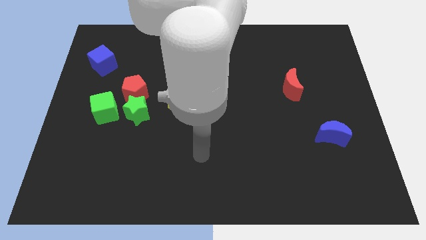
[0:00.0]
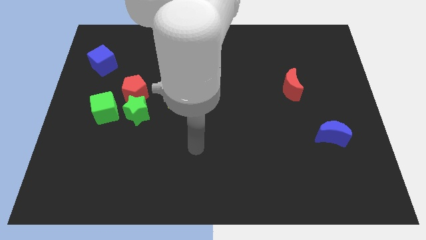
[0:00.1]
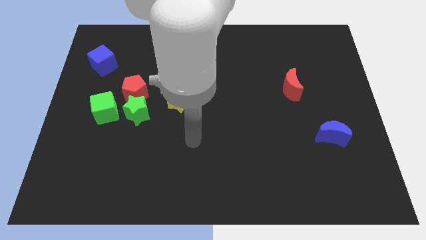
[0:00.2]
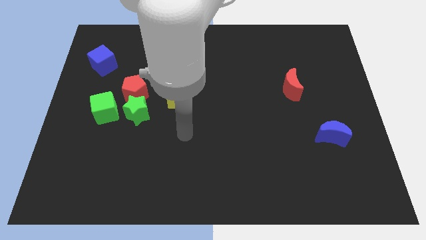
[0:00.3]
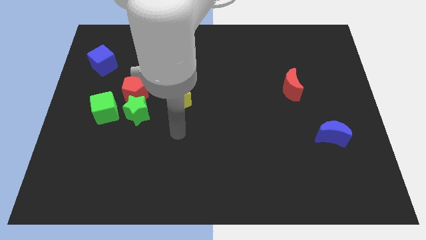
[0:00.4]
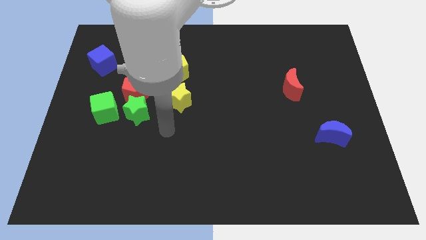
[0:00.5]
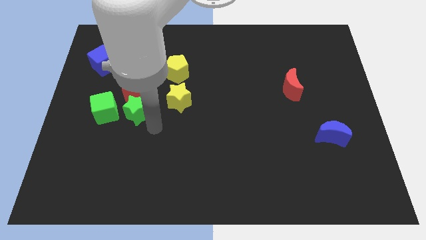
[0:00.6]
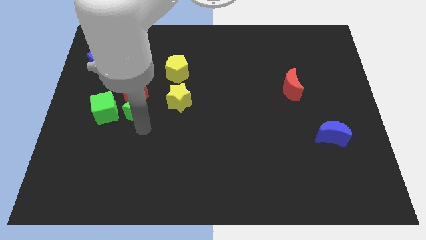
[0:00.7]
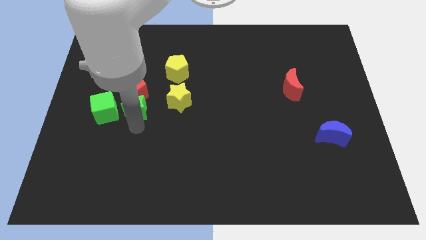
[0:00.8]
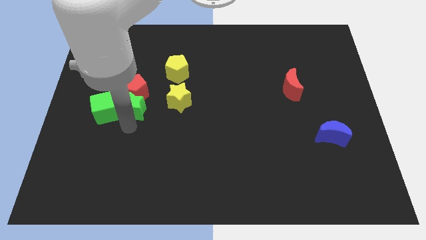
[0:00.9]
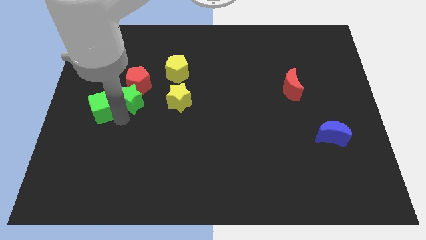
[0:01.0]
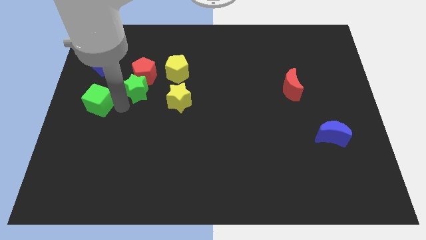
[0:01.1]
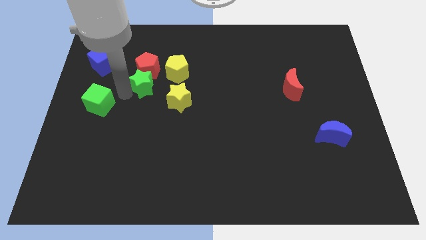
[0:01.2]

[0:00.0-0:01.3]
pull the red pentagon apart from the green star and green cube

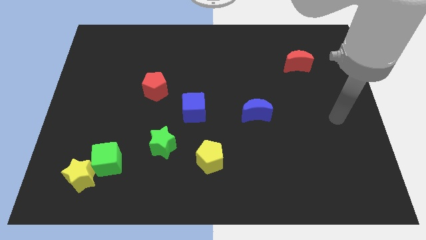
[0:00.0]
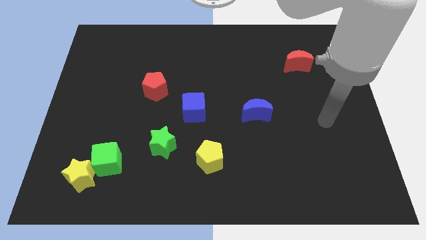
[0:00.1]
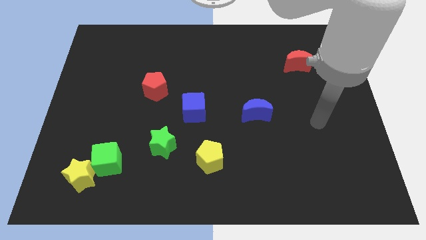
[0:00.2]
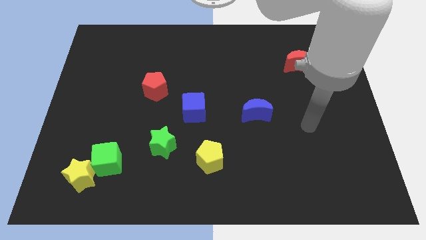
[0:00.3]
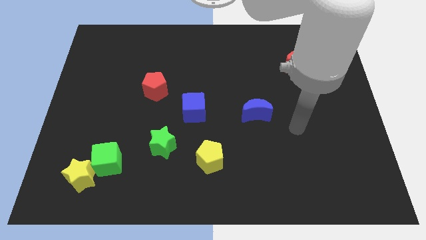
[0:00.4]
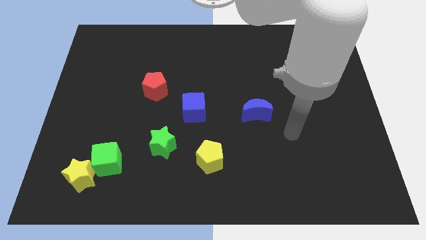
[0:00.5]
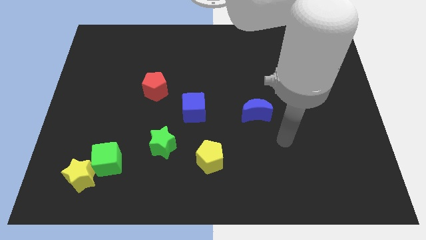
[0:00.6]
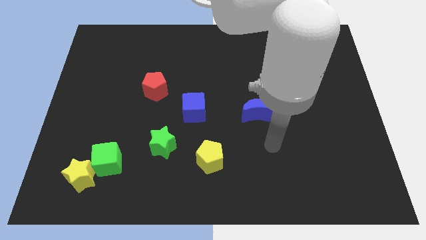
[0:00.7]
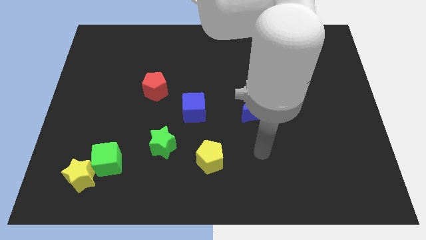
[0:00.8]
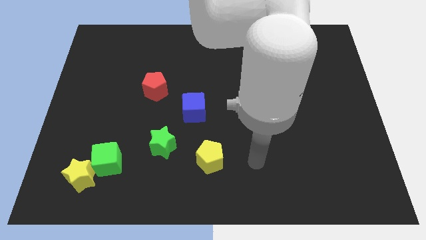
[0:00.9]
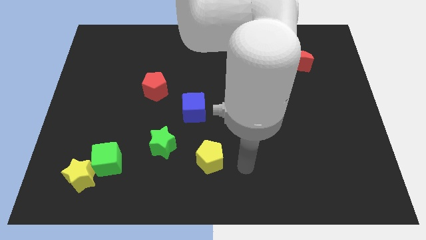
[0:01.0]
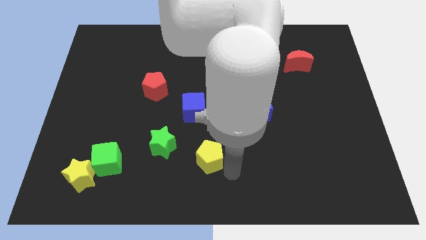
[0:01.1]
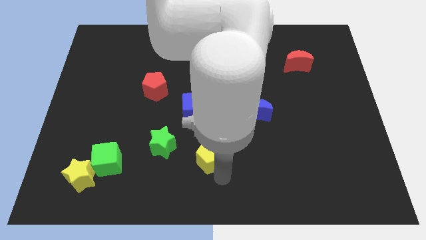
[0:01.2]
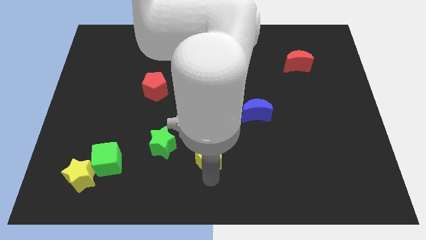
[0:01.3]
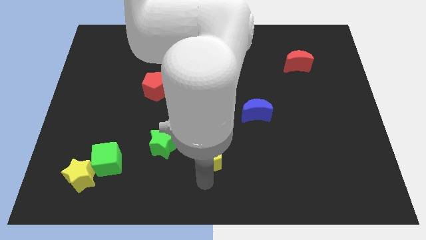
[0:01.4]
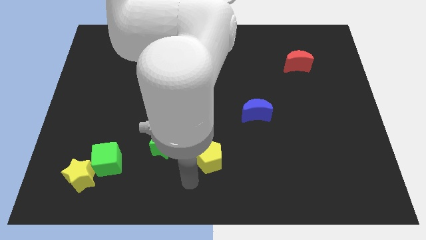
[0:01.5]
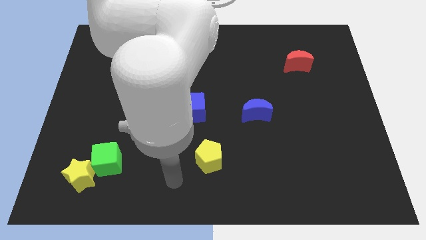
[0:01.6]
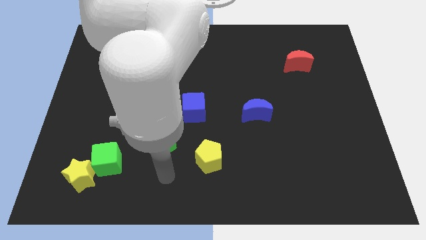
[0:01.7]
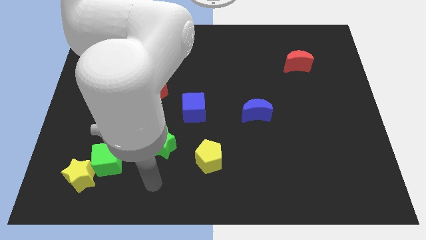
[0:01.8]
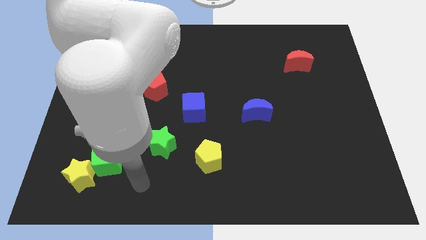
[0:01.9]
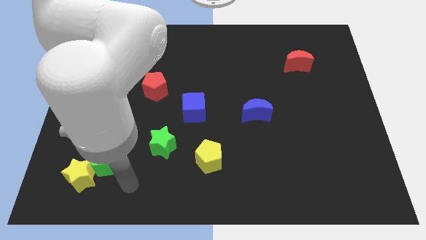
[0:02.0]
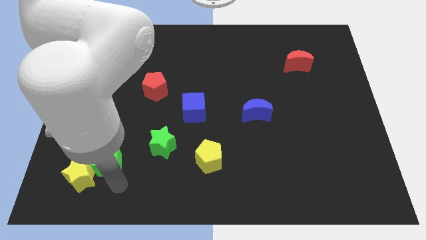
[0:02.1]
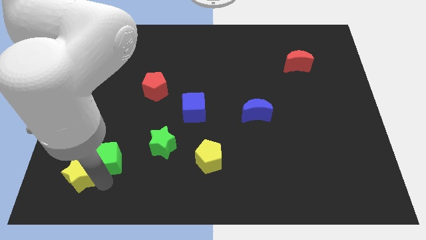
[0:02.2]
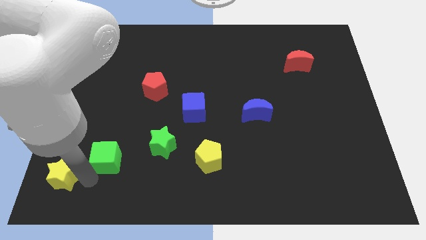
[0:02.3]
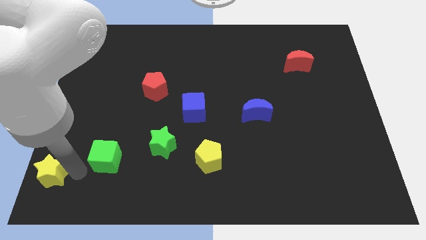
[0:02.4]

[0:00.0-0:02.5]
pull the green cube apart from the yellow star

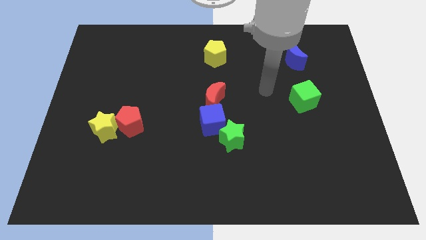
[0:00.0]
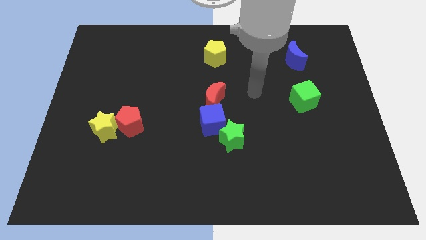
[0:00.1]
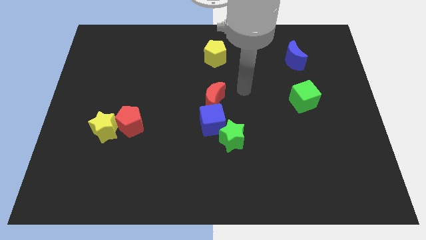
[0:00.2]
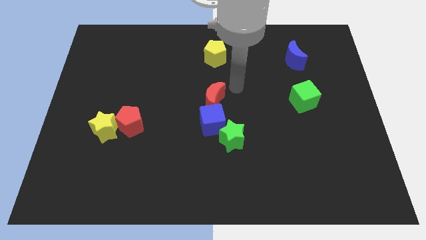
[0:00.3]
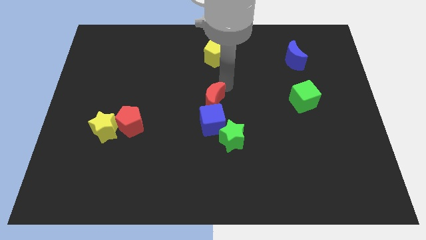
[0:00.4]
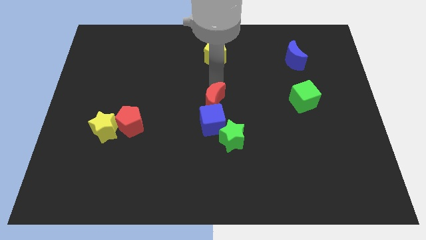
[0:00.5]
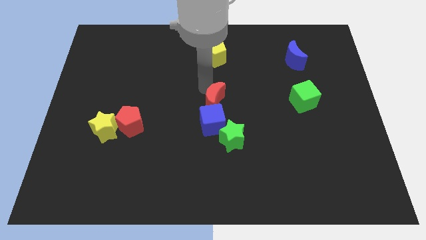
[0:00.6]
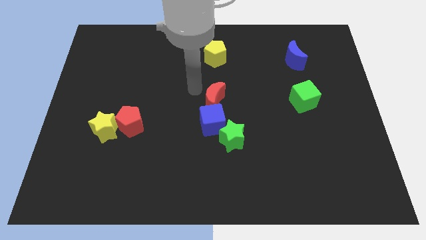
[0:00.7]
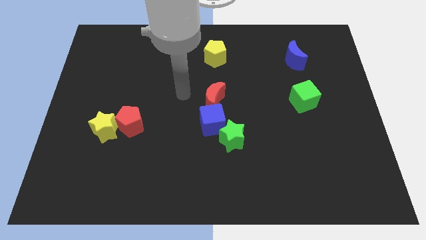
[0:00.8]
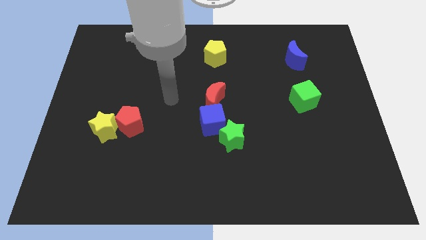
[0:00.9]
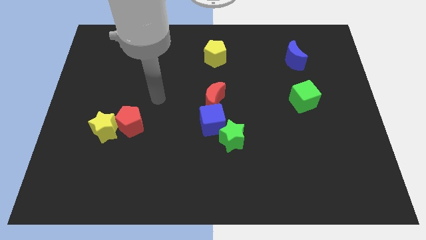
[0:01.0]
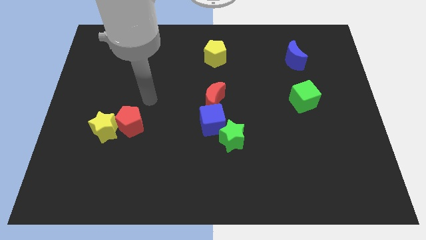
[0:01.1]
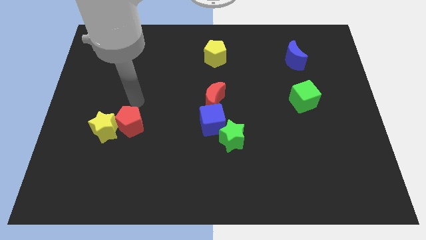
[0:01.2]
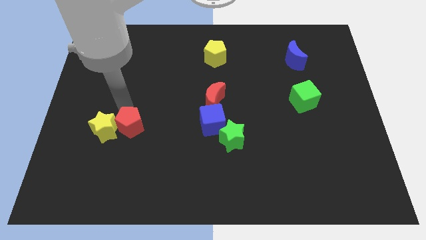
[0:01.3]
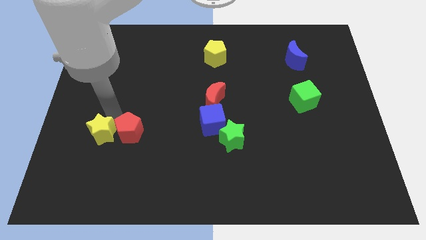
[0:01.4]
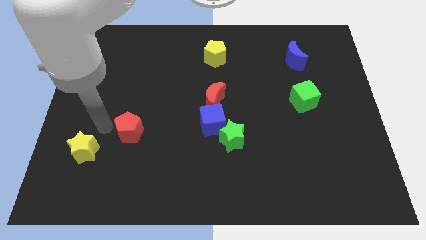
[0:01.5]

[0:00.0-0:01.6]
move the red pentagon away from the yellow star

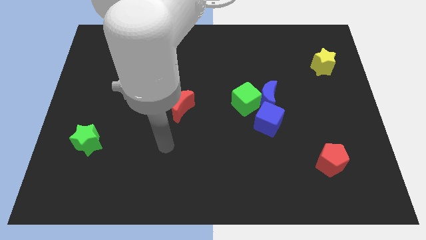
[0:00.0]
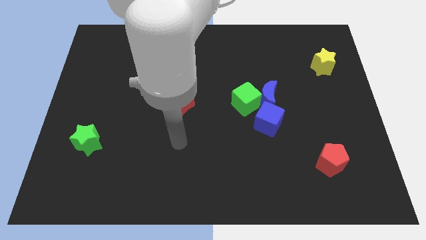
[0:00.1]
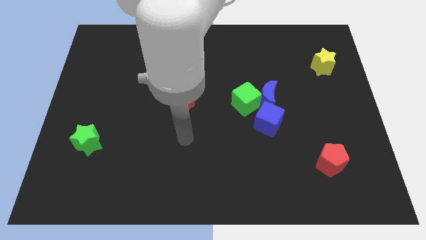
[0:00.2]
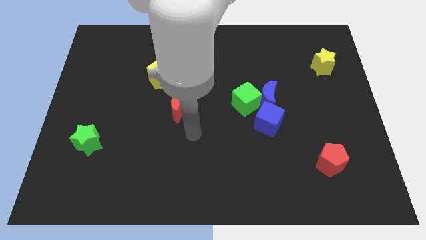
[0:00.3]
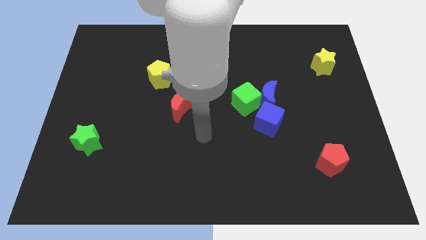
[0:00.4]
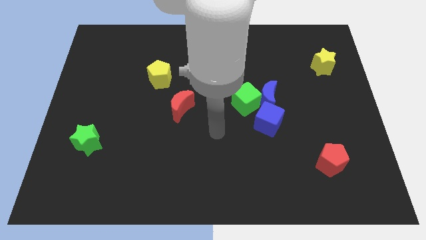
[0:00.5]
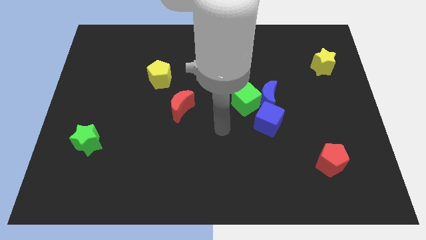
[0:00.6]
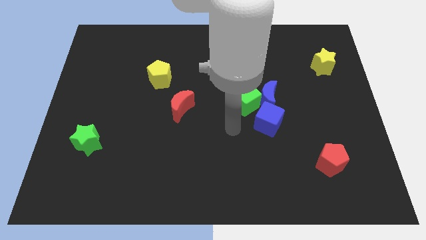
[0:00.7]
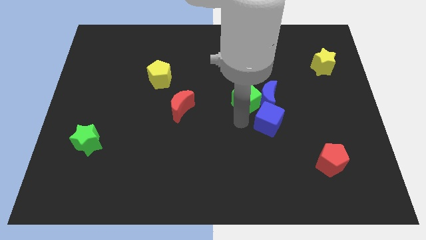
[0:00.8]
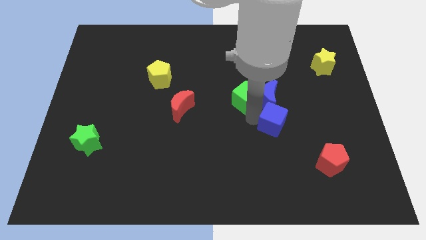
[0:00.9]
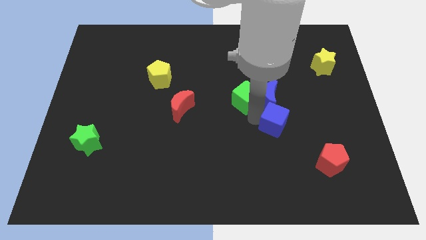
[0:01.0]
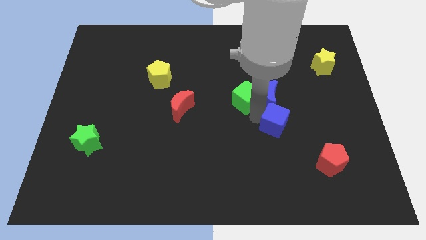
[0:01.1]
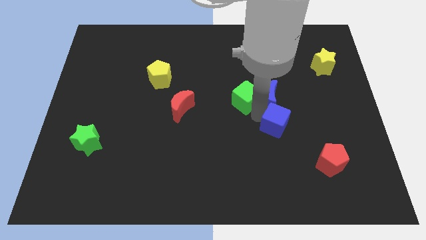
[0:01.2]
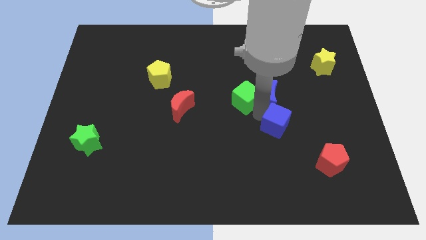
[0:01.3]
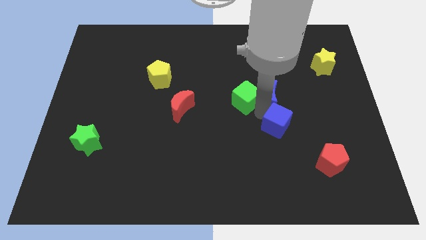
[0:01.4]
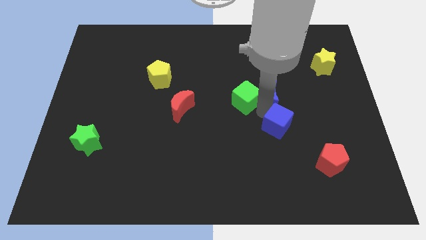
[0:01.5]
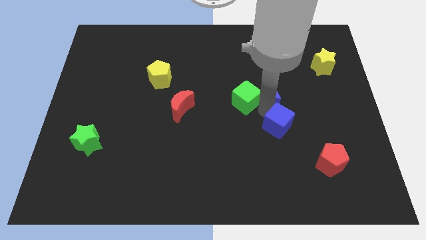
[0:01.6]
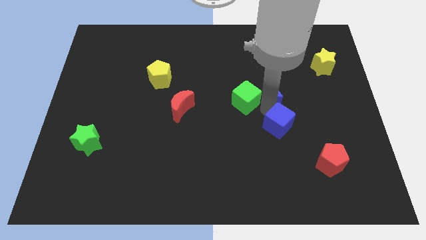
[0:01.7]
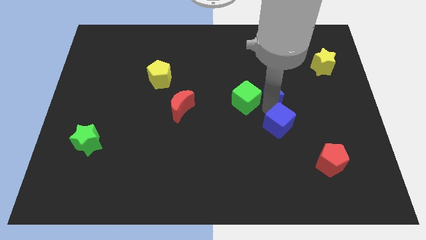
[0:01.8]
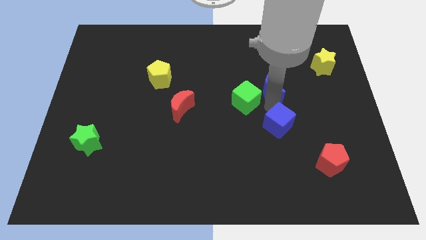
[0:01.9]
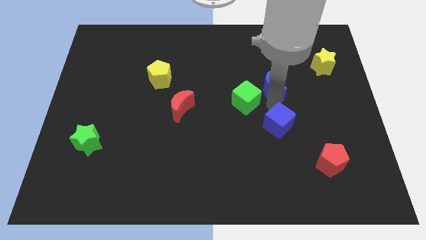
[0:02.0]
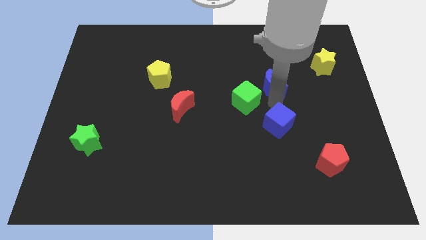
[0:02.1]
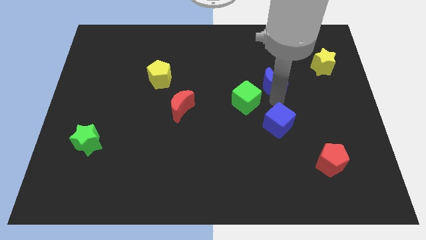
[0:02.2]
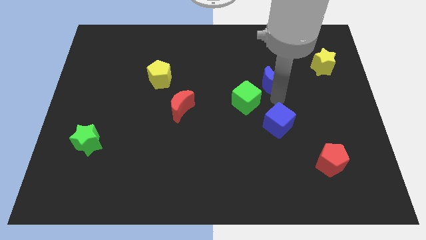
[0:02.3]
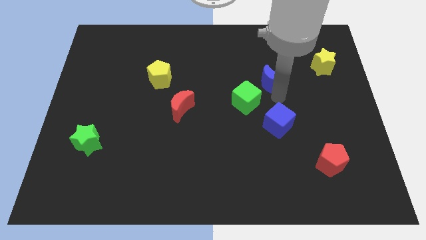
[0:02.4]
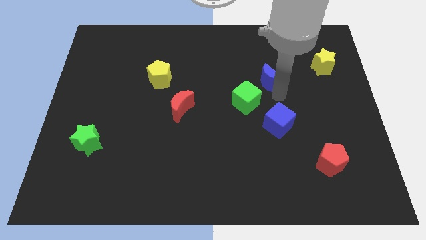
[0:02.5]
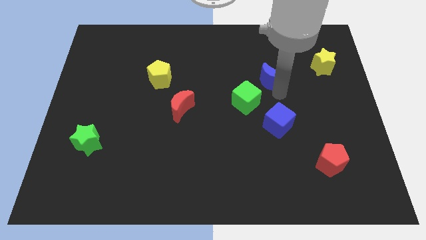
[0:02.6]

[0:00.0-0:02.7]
pull the blue moon apart from the green cube and blue cube

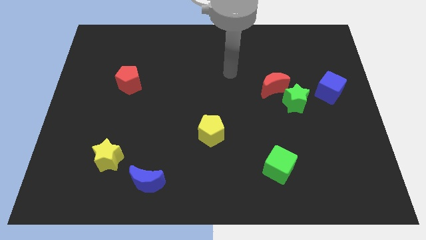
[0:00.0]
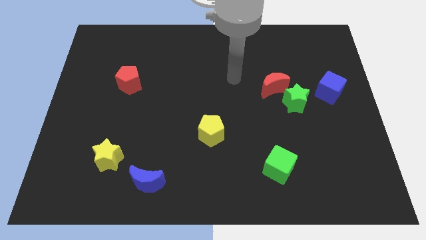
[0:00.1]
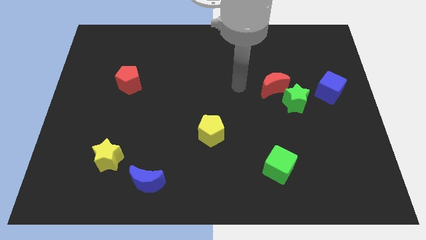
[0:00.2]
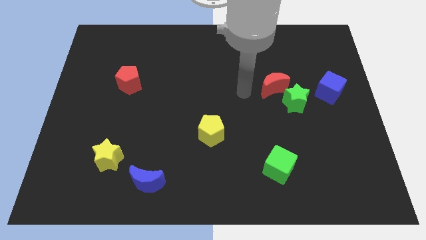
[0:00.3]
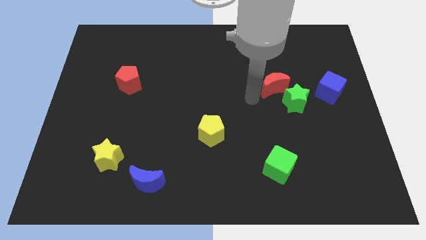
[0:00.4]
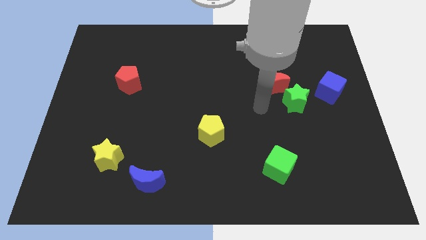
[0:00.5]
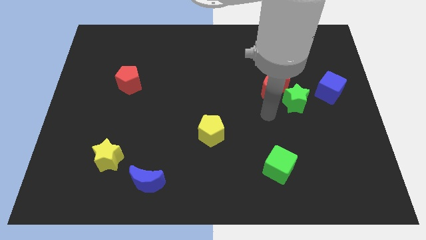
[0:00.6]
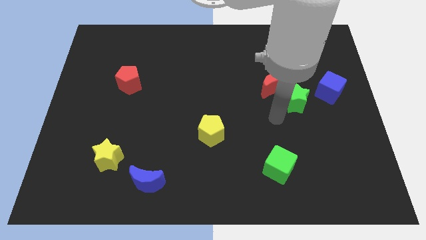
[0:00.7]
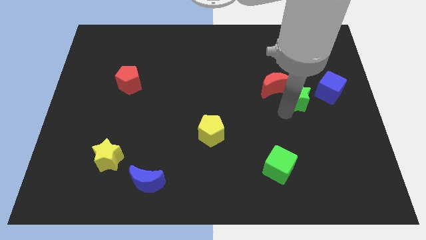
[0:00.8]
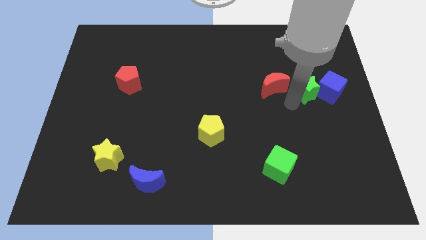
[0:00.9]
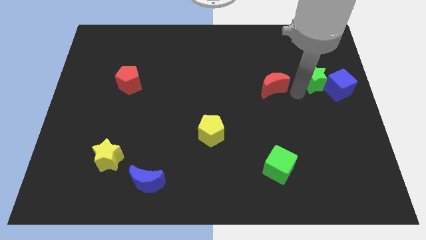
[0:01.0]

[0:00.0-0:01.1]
separate the red moon from the green star

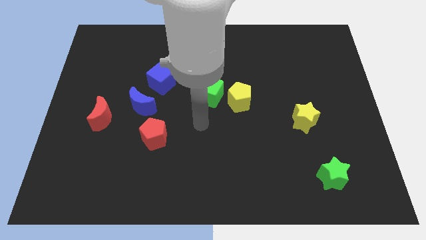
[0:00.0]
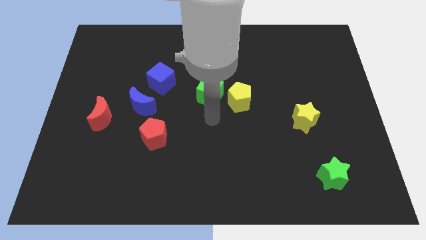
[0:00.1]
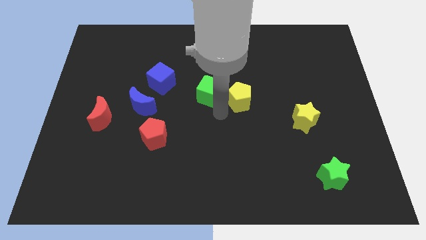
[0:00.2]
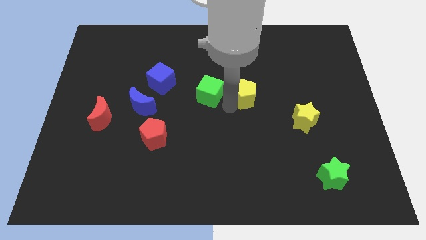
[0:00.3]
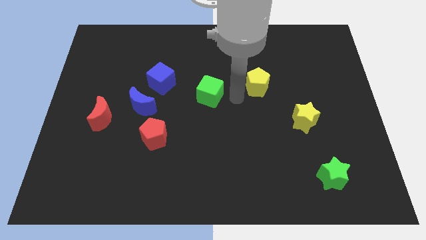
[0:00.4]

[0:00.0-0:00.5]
separate the green cube from the yellow pentagon
